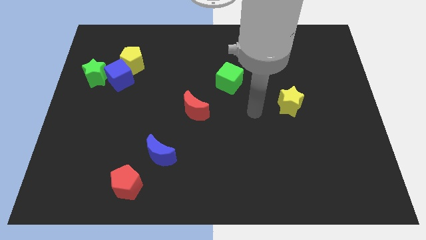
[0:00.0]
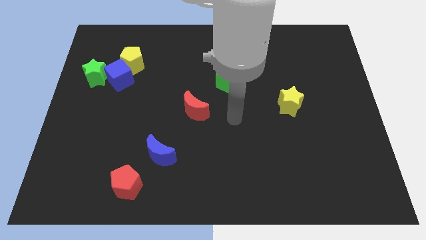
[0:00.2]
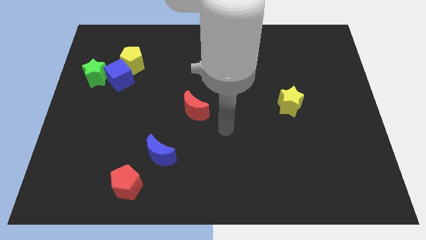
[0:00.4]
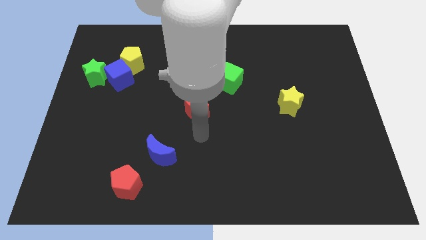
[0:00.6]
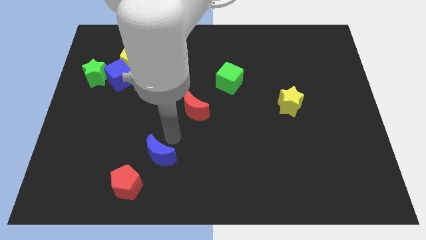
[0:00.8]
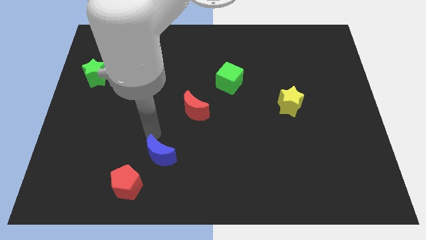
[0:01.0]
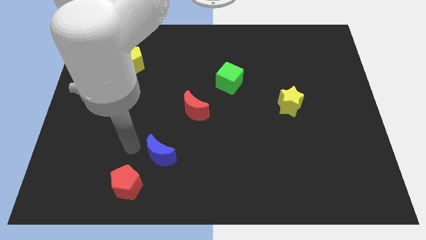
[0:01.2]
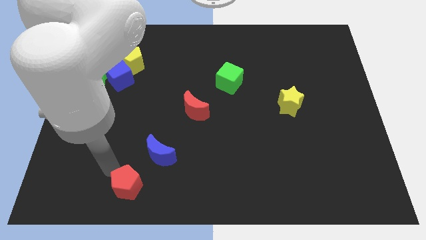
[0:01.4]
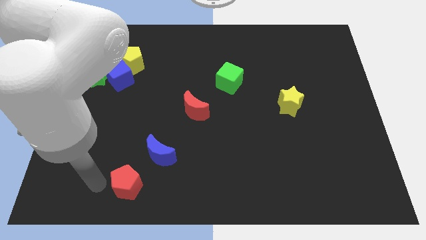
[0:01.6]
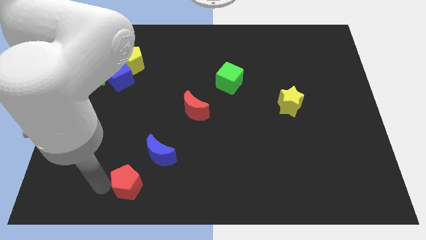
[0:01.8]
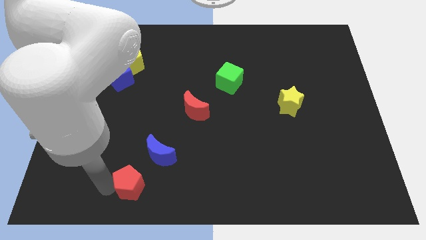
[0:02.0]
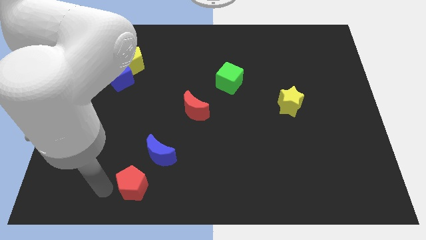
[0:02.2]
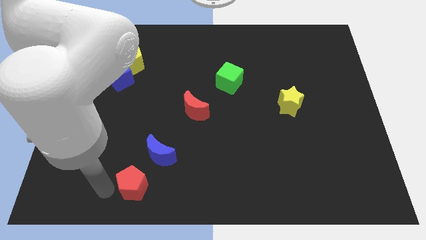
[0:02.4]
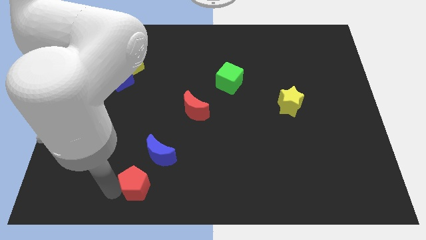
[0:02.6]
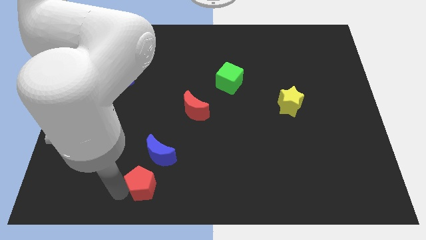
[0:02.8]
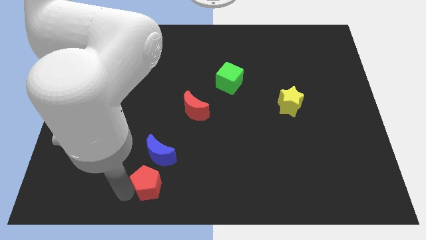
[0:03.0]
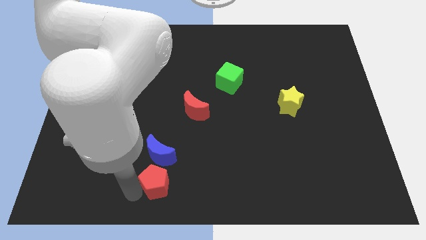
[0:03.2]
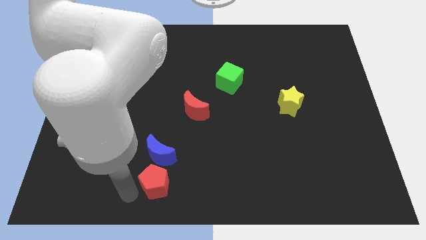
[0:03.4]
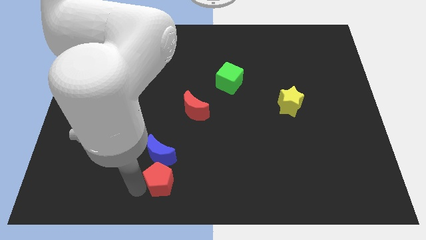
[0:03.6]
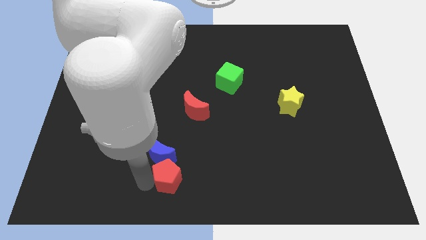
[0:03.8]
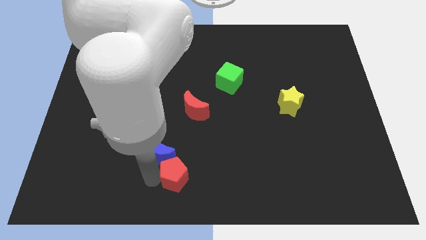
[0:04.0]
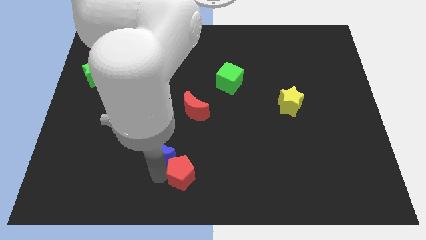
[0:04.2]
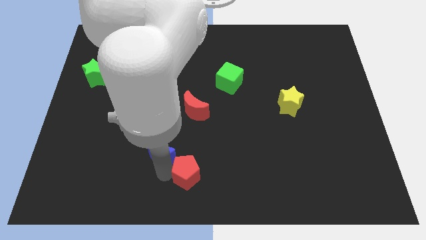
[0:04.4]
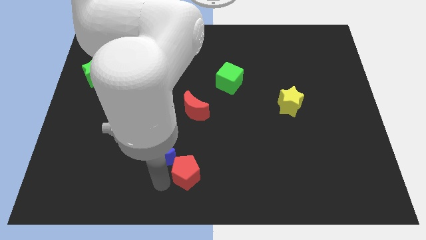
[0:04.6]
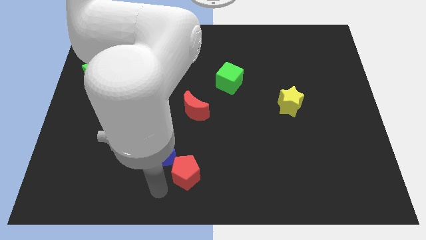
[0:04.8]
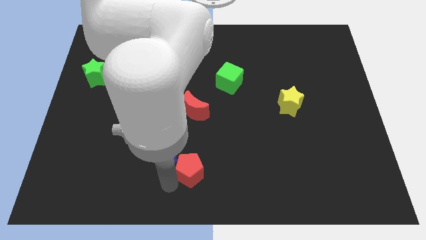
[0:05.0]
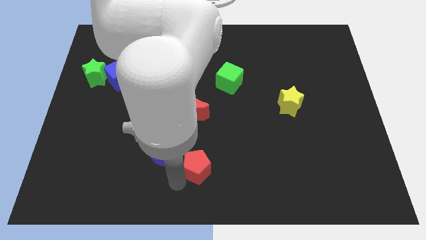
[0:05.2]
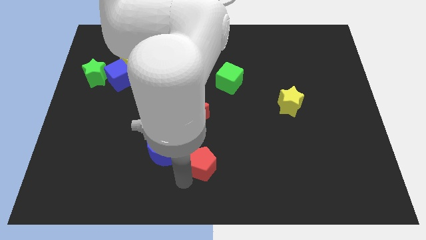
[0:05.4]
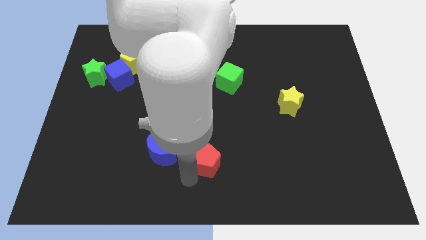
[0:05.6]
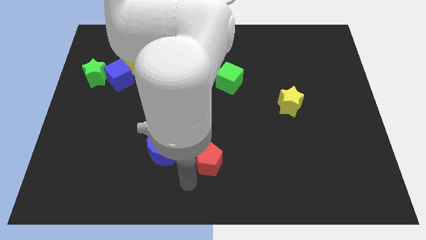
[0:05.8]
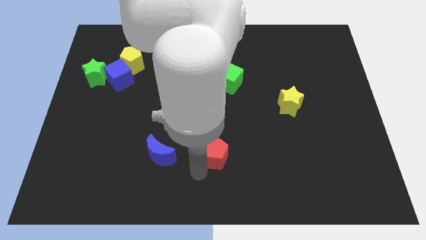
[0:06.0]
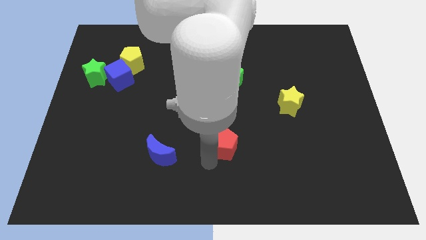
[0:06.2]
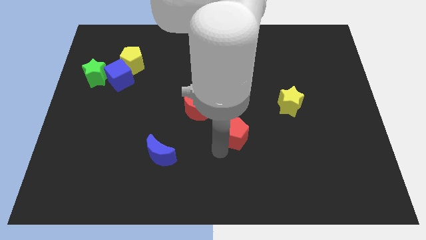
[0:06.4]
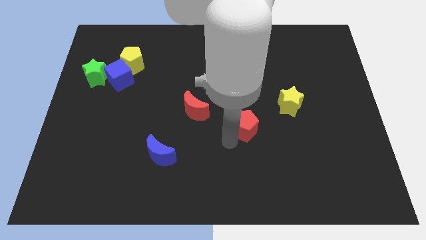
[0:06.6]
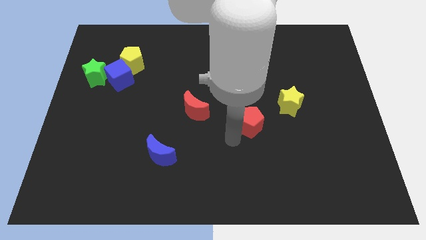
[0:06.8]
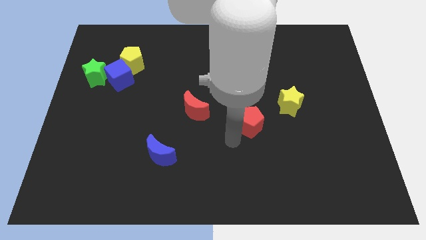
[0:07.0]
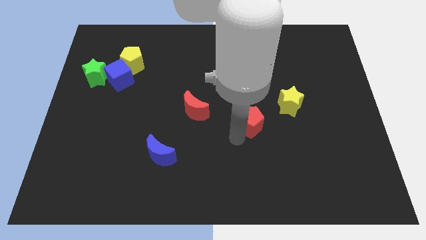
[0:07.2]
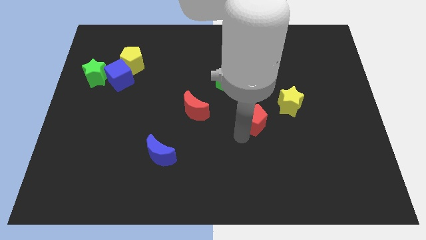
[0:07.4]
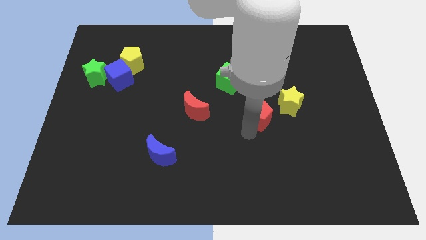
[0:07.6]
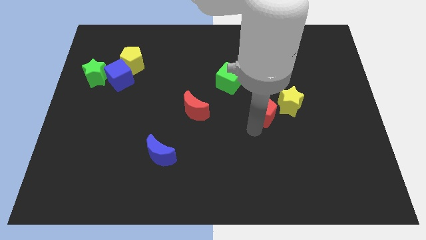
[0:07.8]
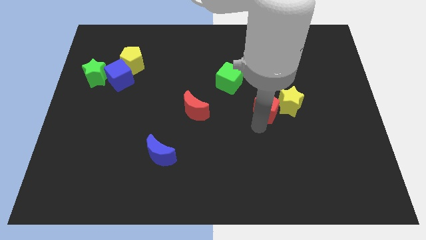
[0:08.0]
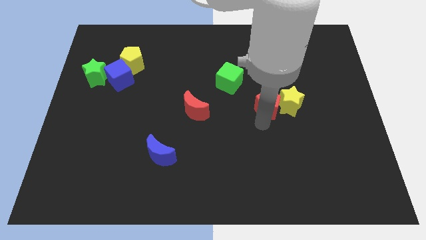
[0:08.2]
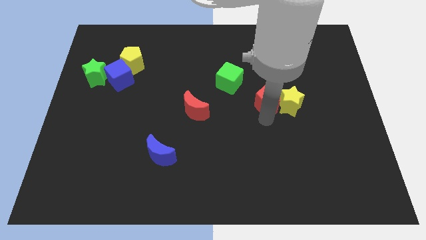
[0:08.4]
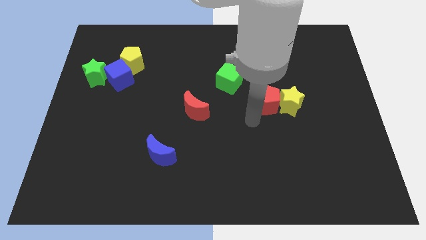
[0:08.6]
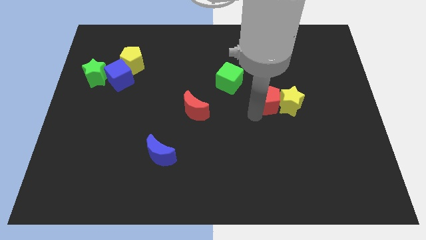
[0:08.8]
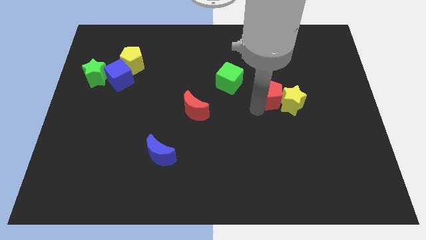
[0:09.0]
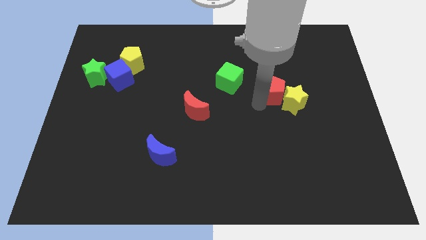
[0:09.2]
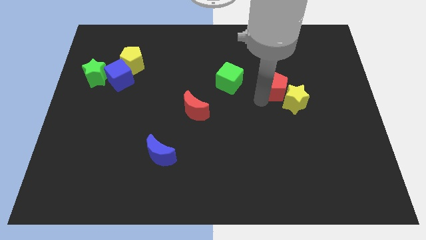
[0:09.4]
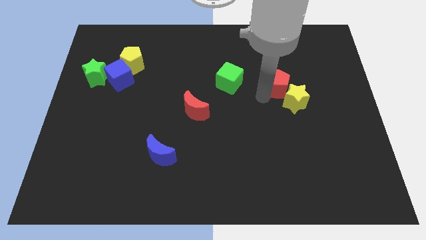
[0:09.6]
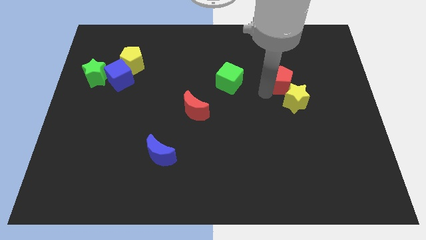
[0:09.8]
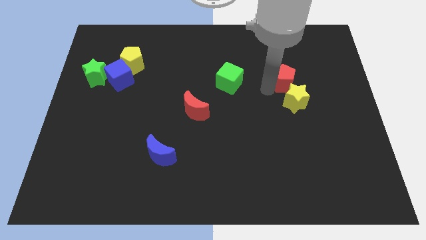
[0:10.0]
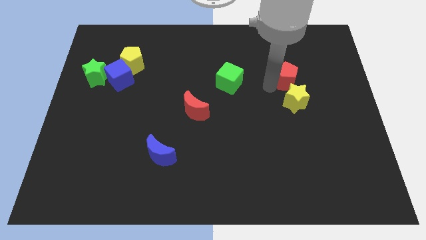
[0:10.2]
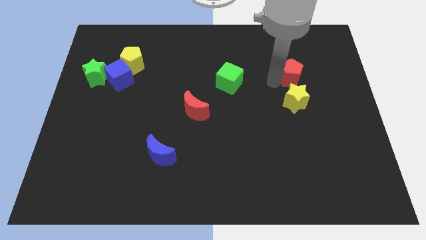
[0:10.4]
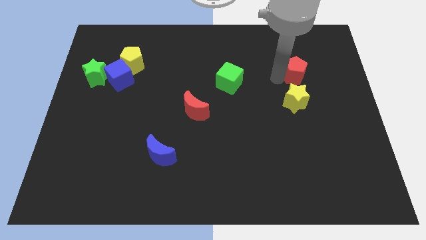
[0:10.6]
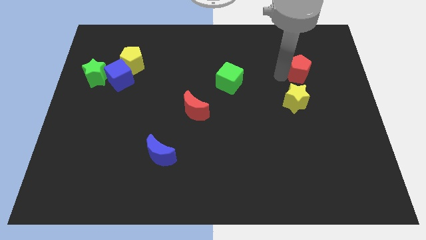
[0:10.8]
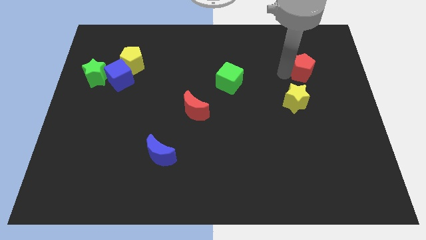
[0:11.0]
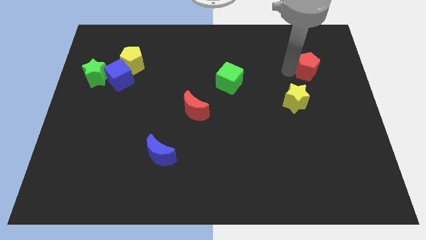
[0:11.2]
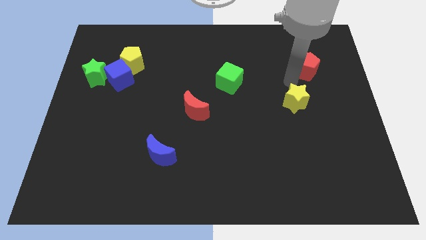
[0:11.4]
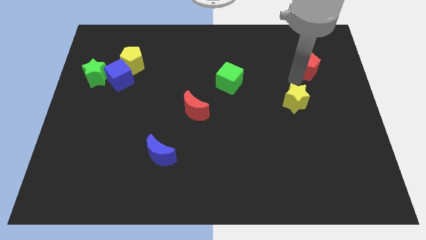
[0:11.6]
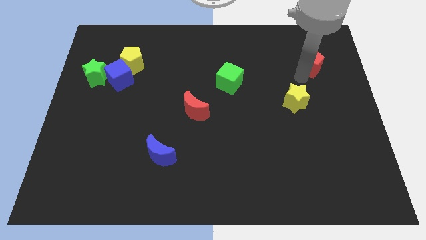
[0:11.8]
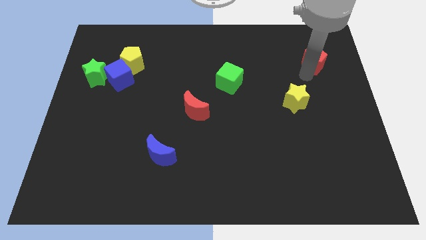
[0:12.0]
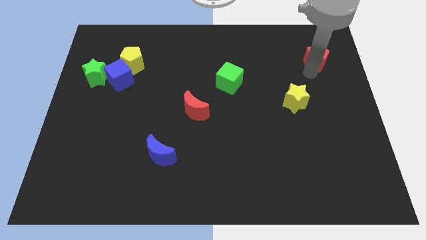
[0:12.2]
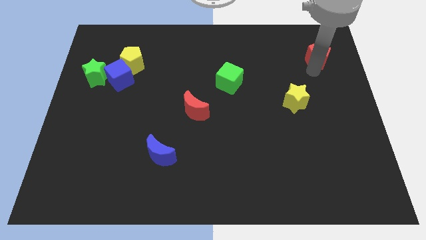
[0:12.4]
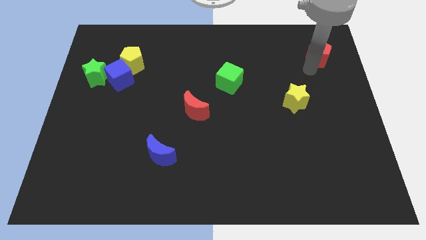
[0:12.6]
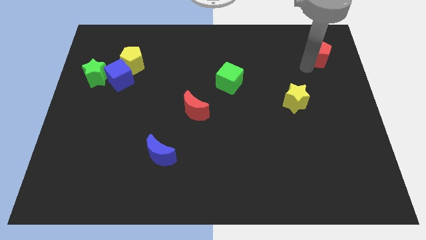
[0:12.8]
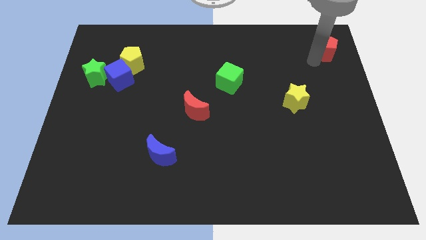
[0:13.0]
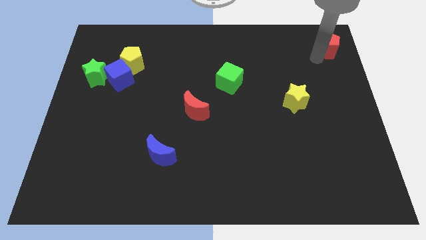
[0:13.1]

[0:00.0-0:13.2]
push the red pentagon to the upper right corner

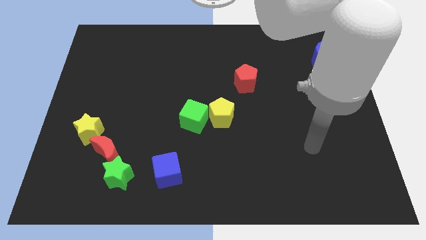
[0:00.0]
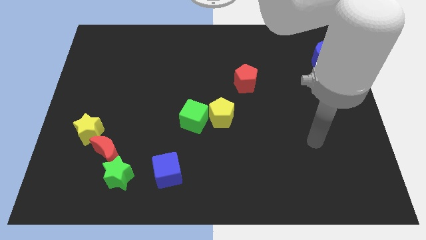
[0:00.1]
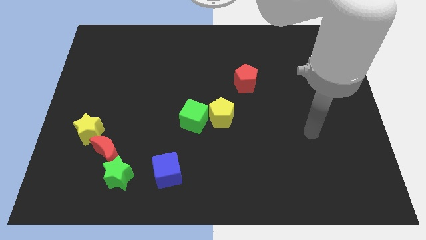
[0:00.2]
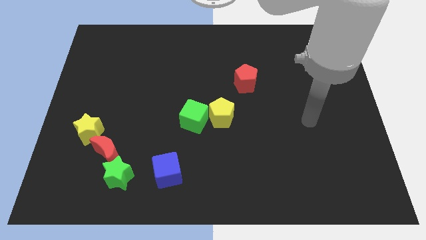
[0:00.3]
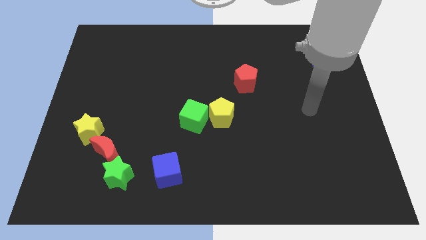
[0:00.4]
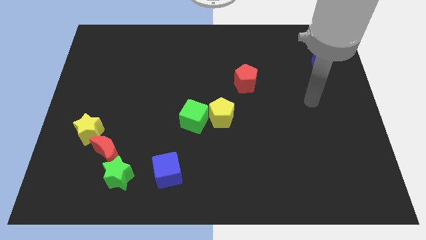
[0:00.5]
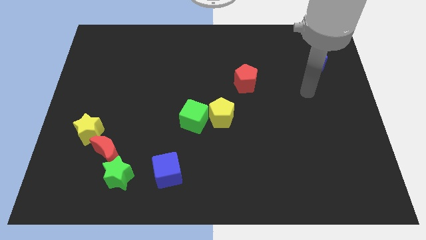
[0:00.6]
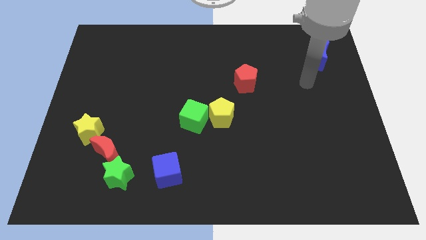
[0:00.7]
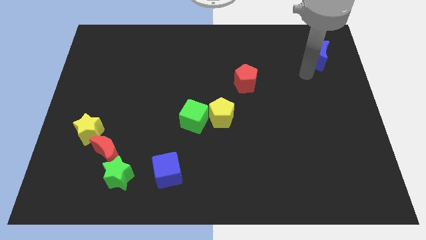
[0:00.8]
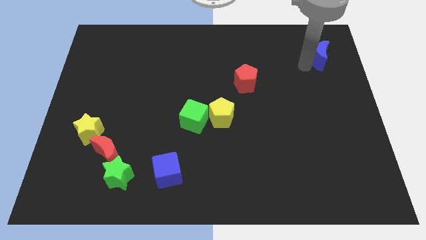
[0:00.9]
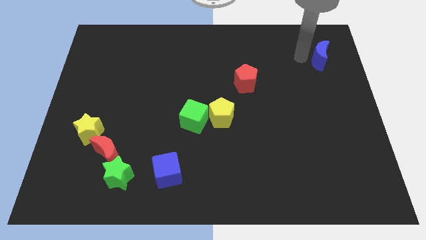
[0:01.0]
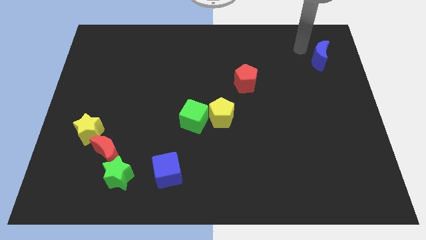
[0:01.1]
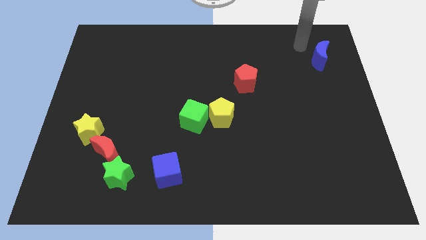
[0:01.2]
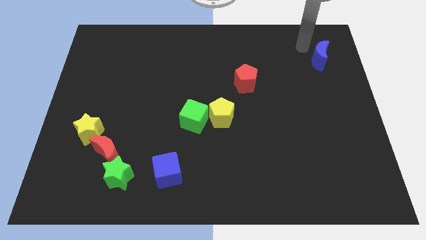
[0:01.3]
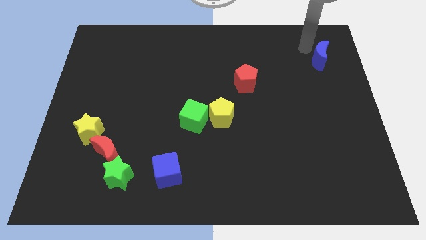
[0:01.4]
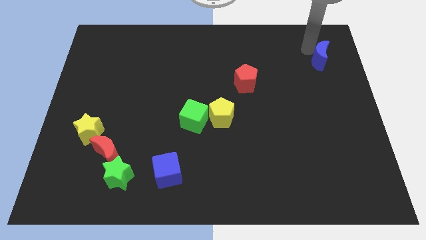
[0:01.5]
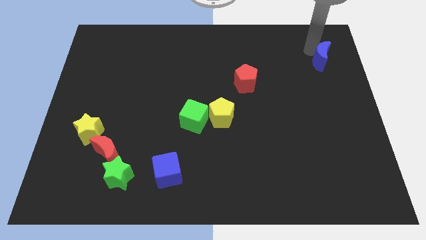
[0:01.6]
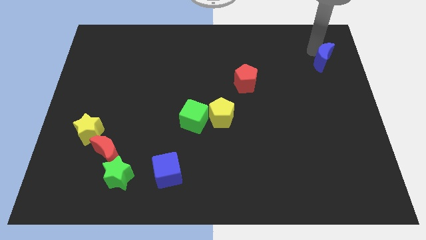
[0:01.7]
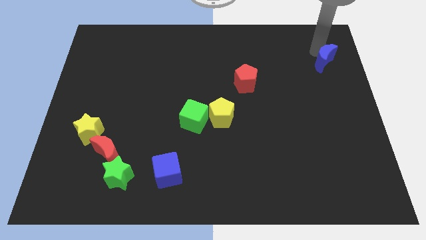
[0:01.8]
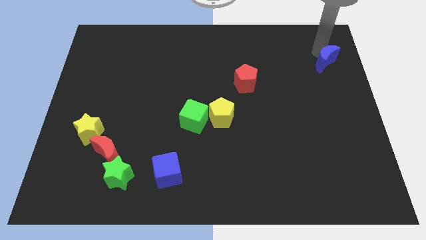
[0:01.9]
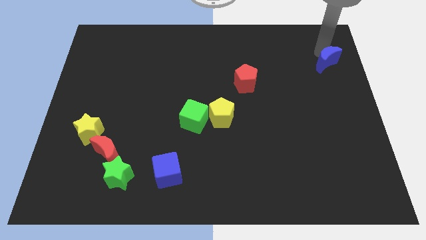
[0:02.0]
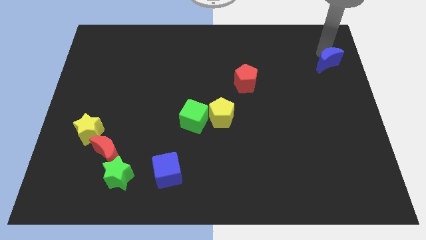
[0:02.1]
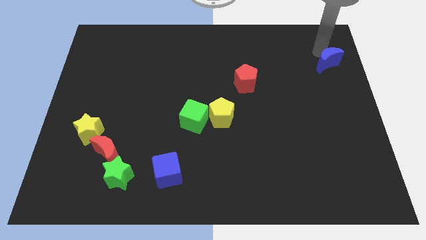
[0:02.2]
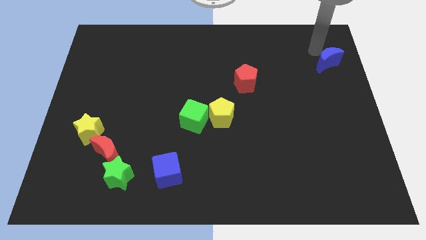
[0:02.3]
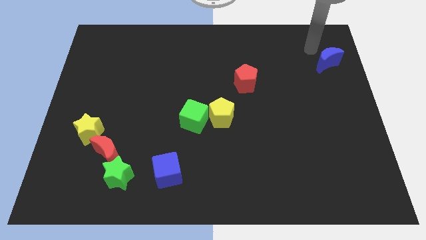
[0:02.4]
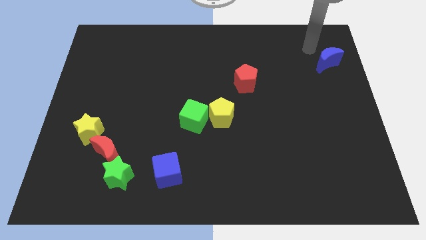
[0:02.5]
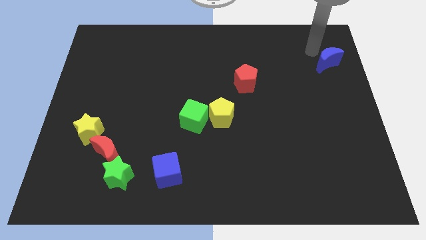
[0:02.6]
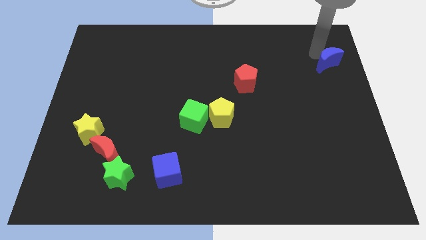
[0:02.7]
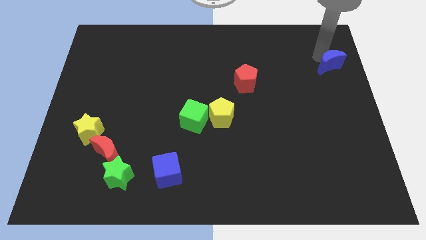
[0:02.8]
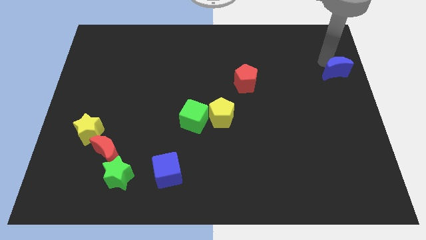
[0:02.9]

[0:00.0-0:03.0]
put the blue moon to the right side
